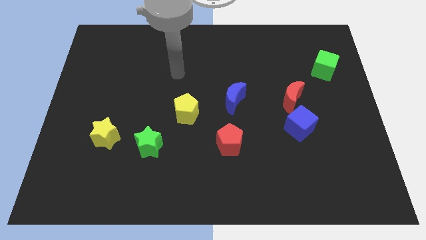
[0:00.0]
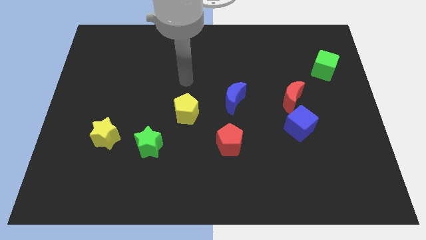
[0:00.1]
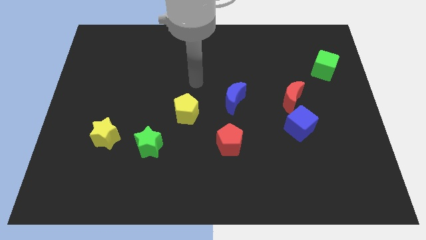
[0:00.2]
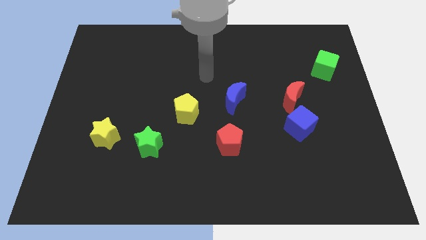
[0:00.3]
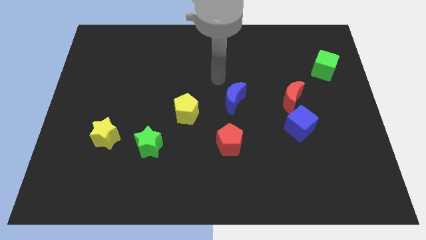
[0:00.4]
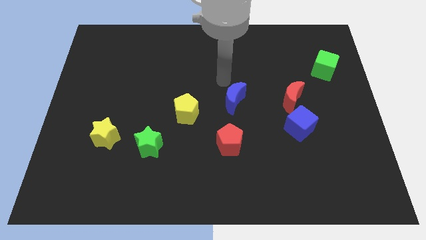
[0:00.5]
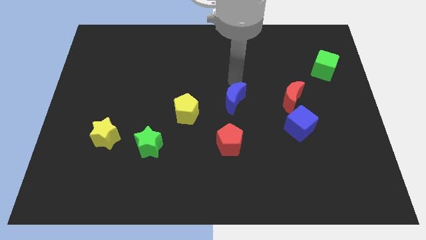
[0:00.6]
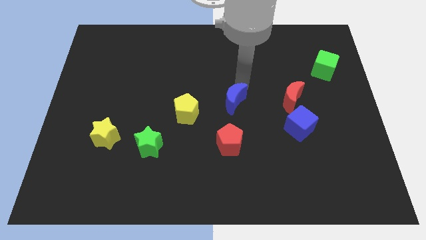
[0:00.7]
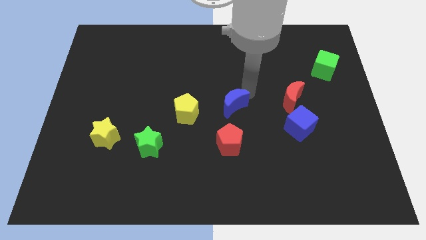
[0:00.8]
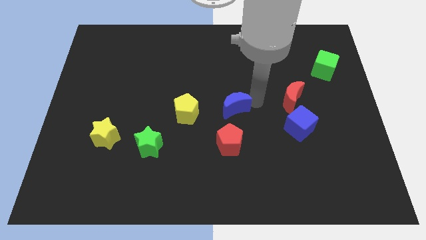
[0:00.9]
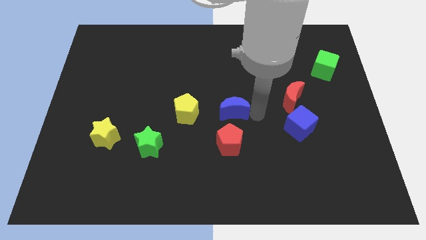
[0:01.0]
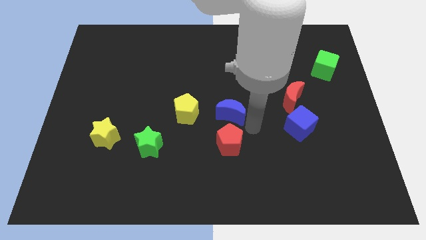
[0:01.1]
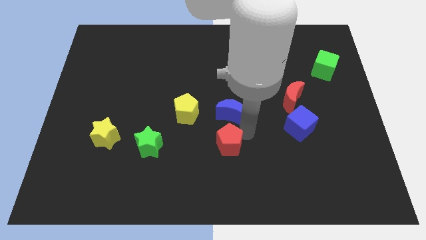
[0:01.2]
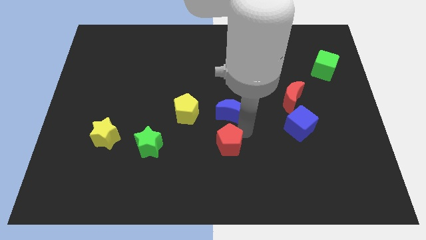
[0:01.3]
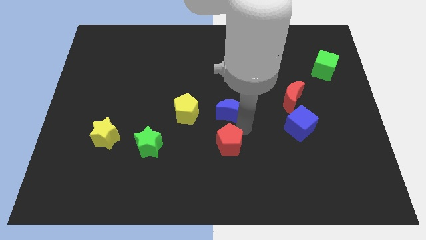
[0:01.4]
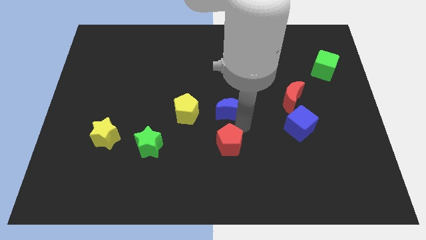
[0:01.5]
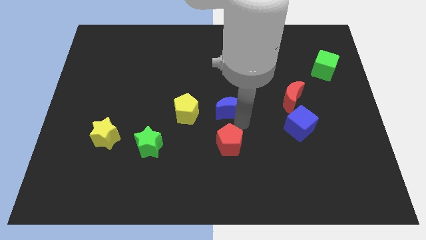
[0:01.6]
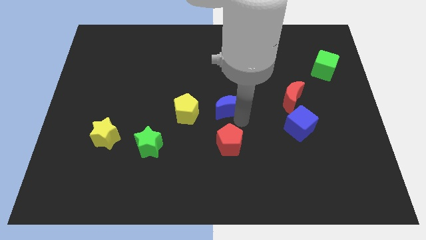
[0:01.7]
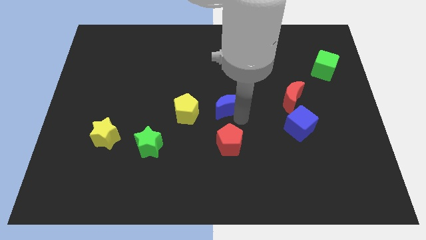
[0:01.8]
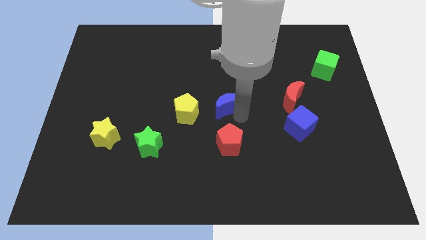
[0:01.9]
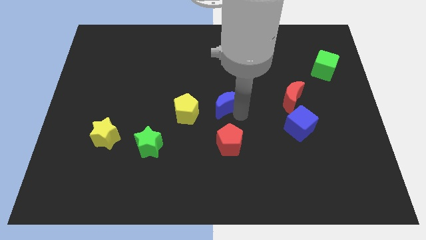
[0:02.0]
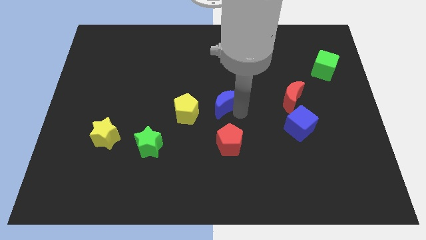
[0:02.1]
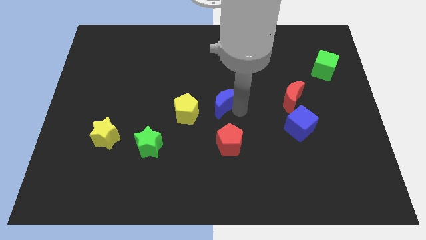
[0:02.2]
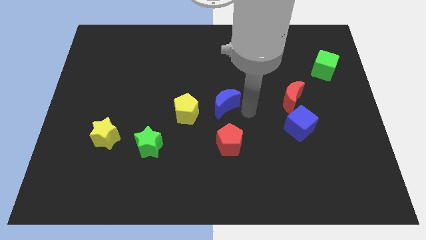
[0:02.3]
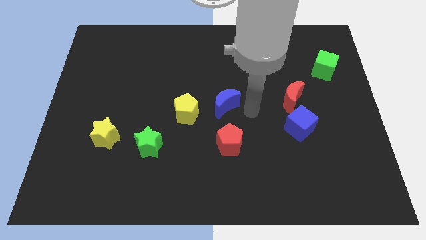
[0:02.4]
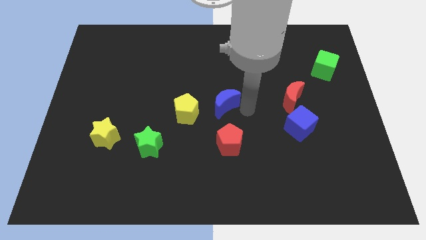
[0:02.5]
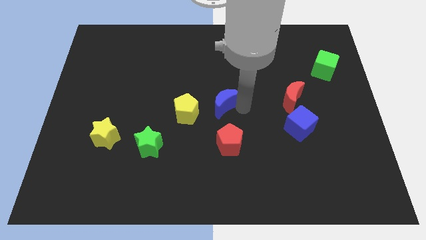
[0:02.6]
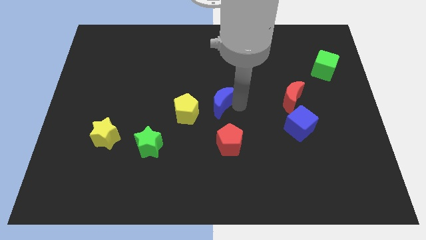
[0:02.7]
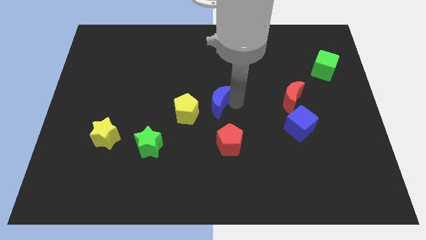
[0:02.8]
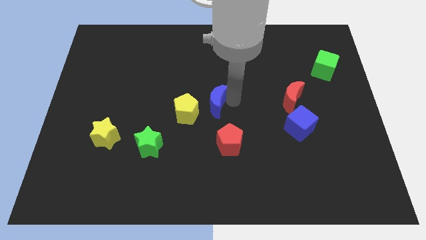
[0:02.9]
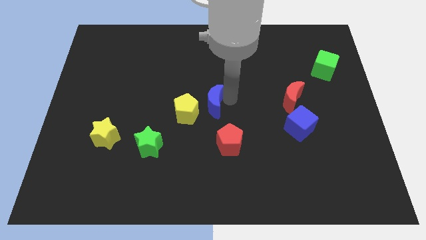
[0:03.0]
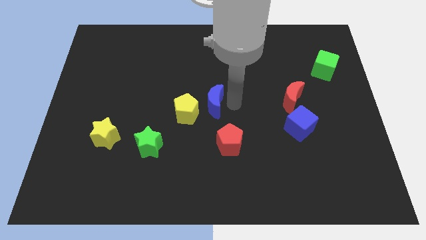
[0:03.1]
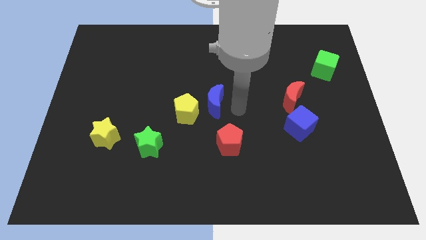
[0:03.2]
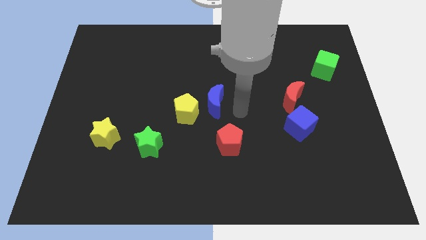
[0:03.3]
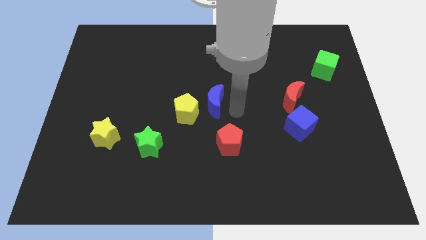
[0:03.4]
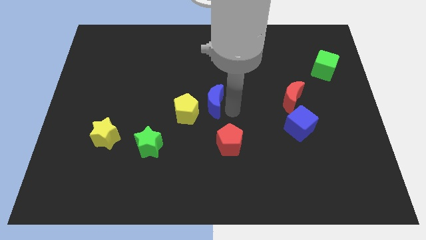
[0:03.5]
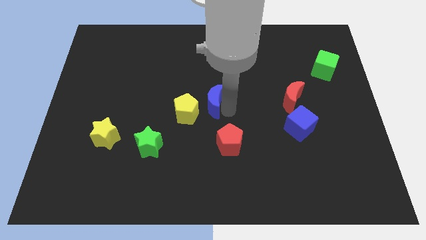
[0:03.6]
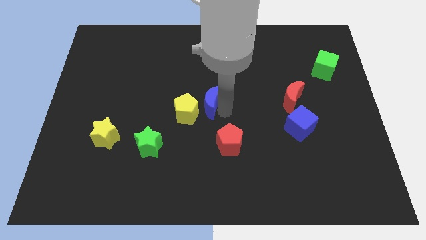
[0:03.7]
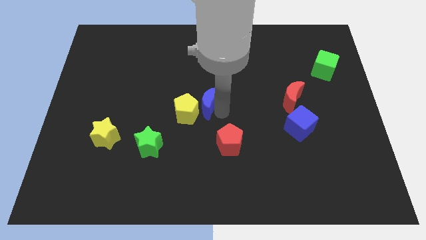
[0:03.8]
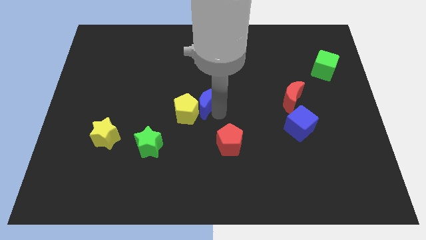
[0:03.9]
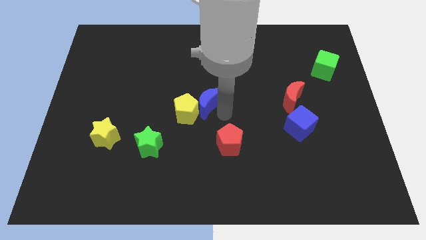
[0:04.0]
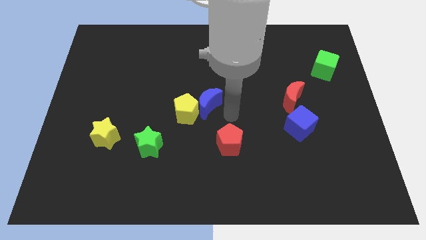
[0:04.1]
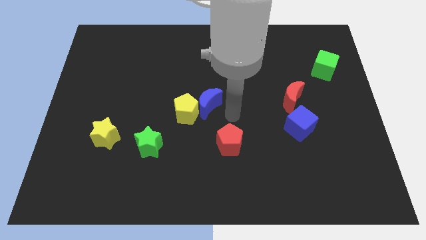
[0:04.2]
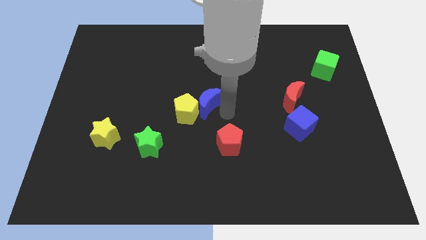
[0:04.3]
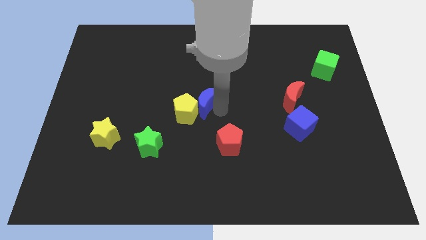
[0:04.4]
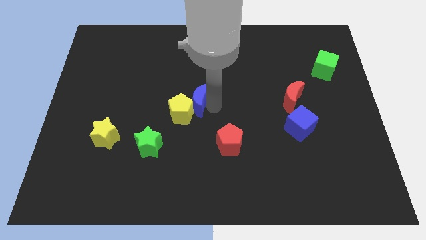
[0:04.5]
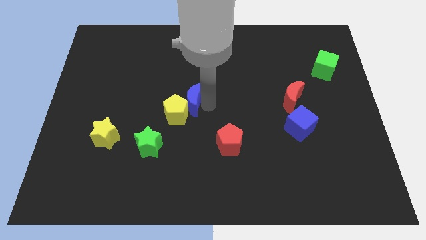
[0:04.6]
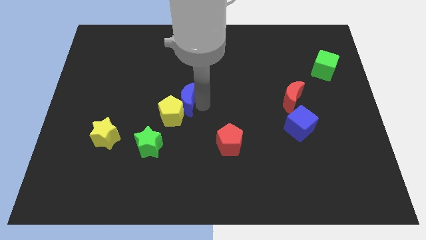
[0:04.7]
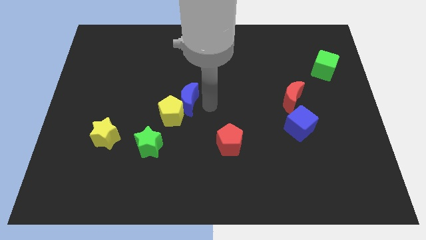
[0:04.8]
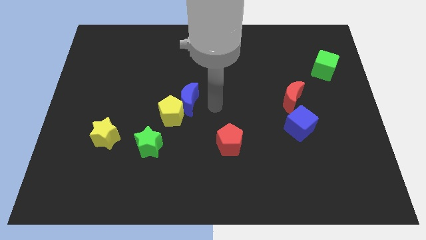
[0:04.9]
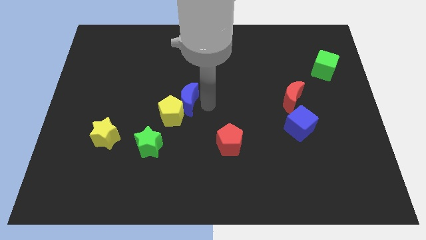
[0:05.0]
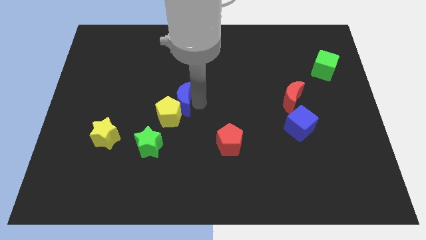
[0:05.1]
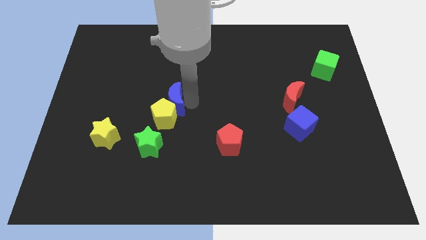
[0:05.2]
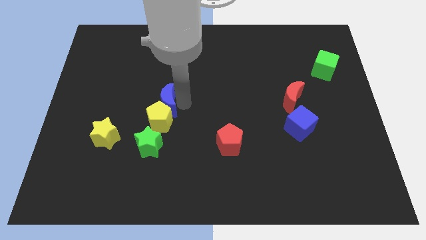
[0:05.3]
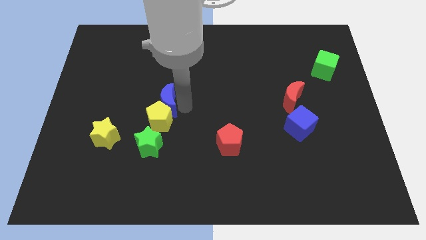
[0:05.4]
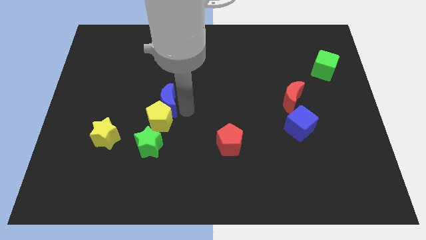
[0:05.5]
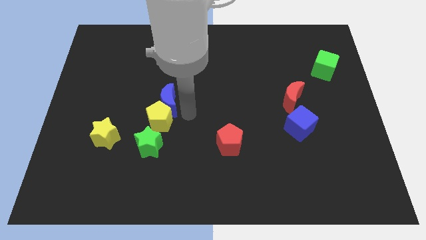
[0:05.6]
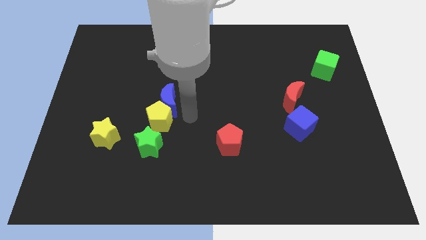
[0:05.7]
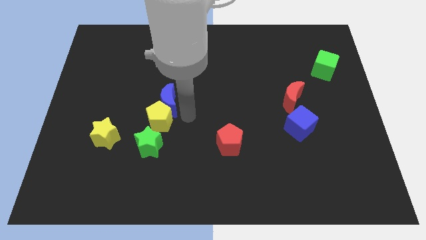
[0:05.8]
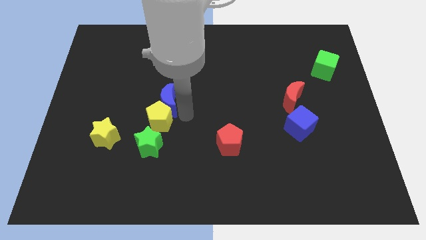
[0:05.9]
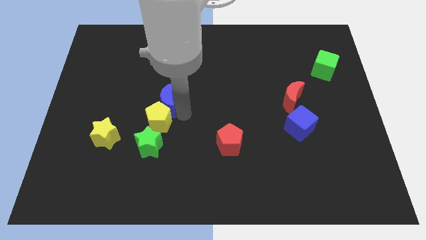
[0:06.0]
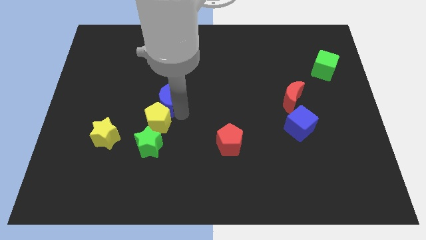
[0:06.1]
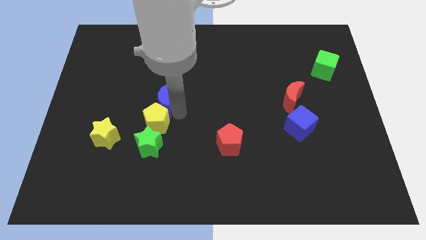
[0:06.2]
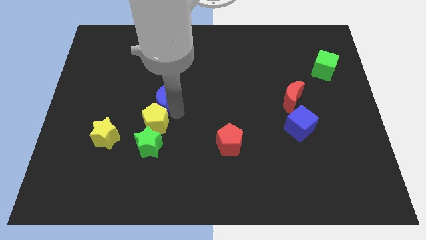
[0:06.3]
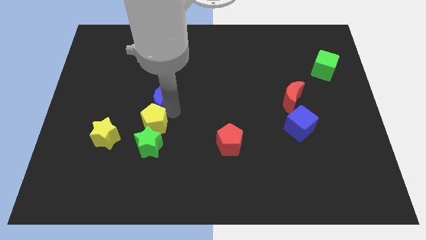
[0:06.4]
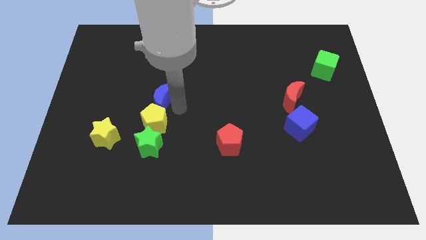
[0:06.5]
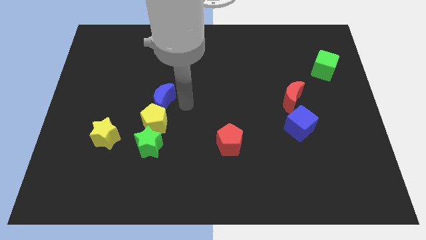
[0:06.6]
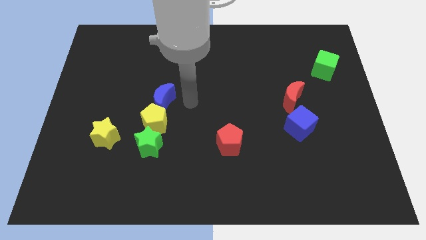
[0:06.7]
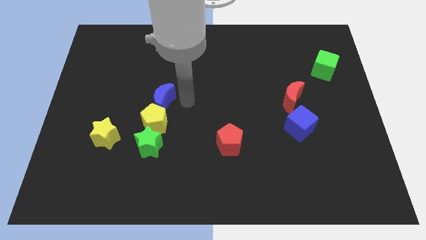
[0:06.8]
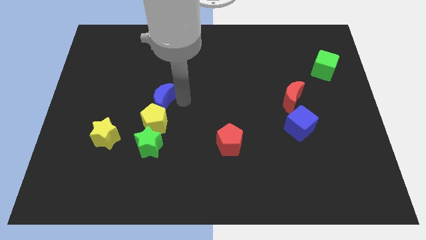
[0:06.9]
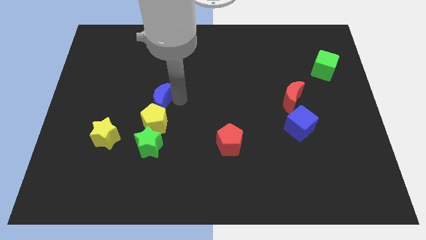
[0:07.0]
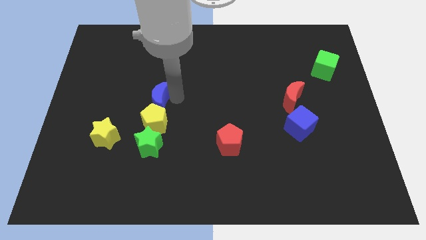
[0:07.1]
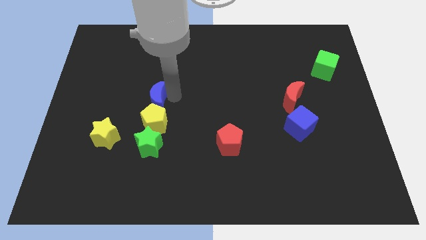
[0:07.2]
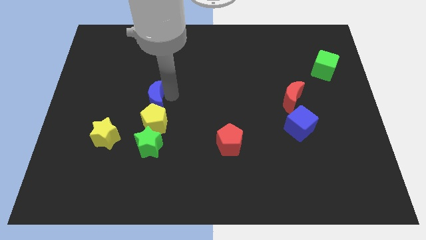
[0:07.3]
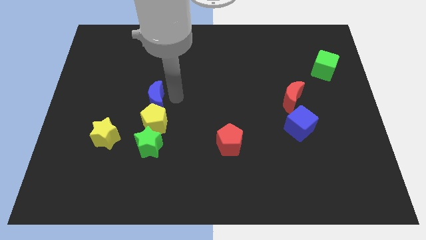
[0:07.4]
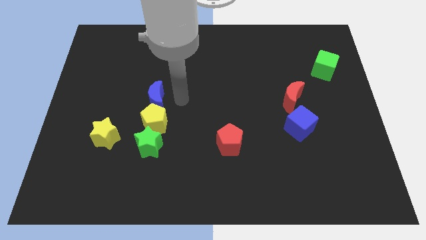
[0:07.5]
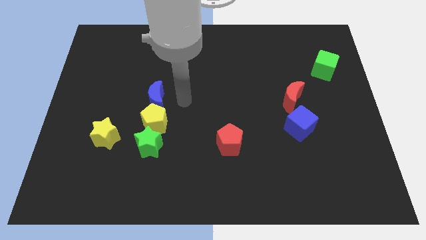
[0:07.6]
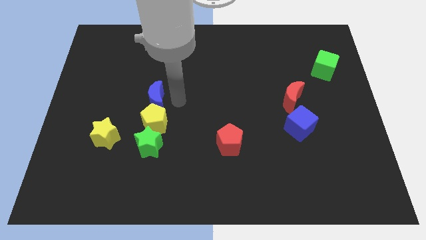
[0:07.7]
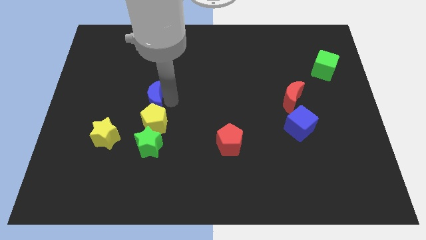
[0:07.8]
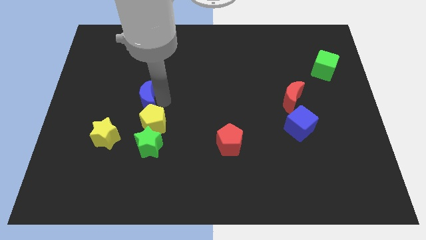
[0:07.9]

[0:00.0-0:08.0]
move the blue moon left

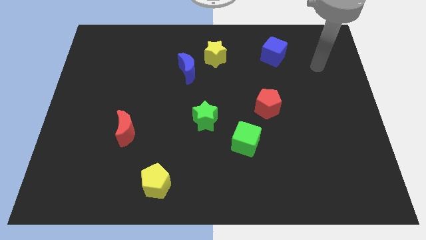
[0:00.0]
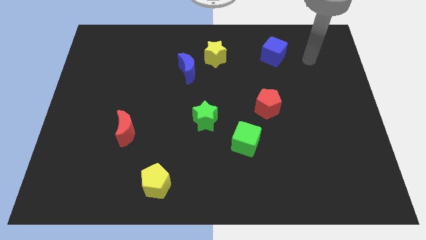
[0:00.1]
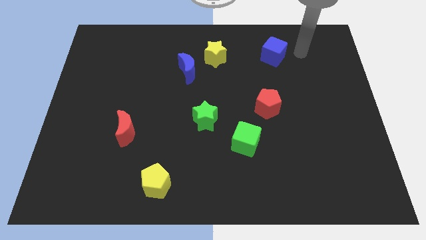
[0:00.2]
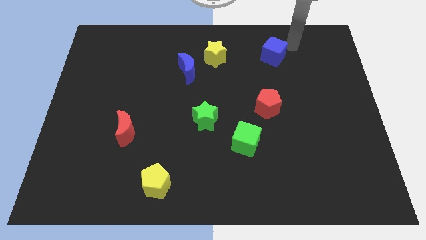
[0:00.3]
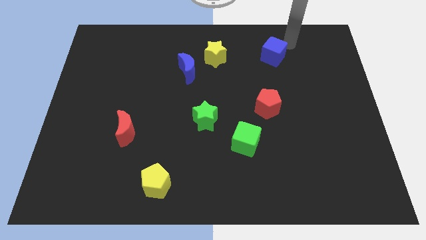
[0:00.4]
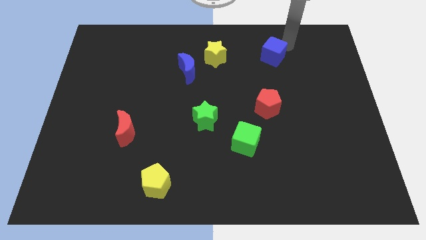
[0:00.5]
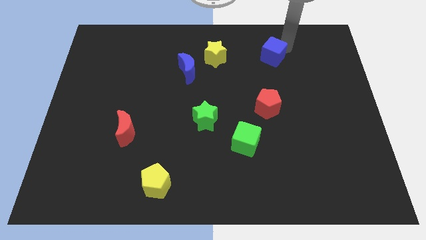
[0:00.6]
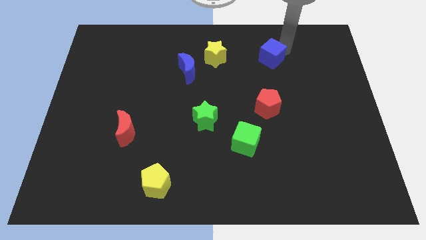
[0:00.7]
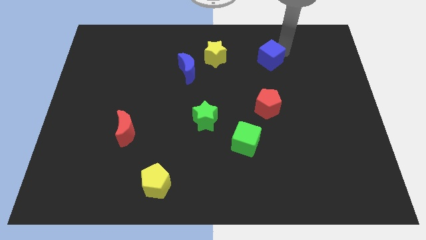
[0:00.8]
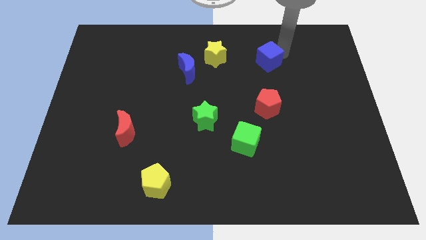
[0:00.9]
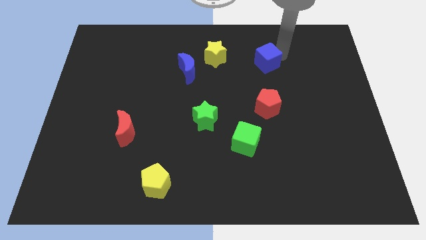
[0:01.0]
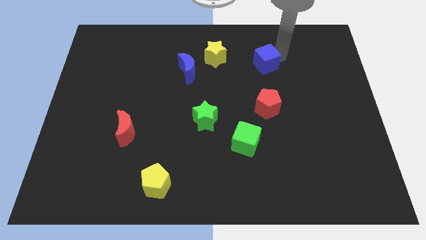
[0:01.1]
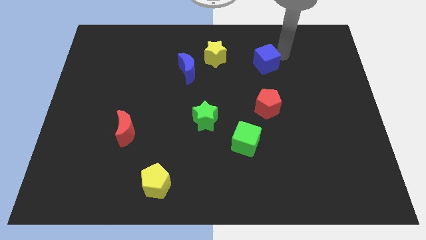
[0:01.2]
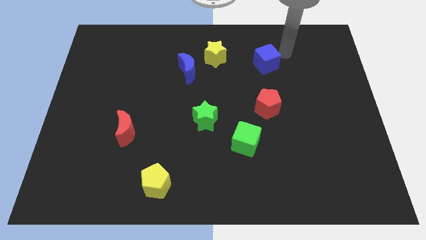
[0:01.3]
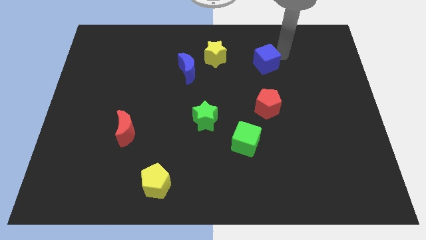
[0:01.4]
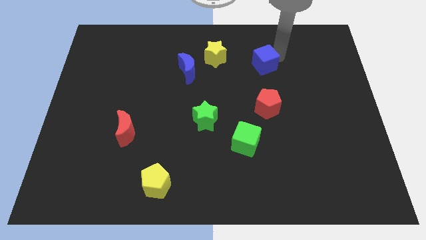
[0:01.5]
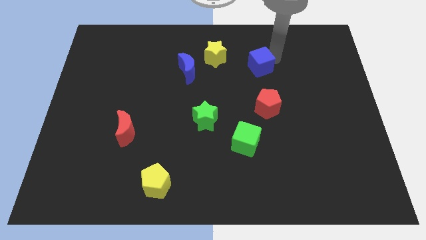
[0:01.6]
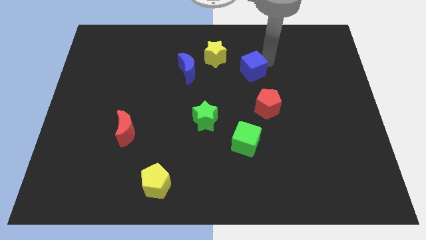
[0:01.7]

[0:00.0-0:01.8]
move the blue cube down and to the left diagonally a little
